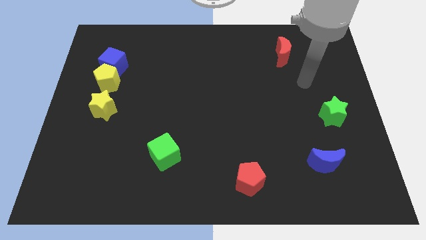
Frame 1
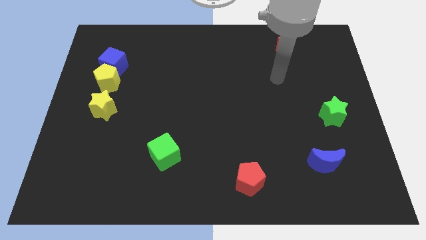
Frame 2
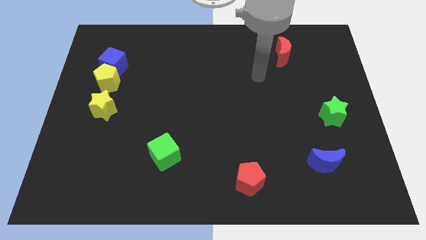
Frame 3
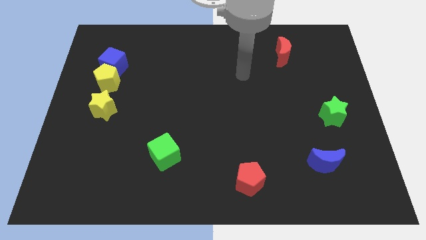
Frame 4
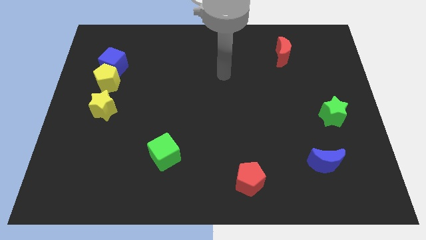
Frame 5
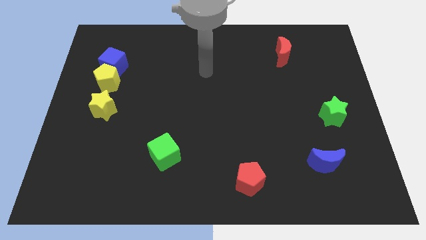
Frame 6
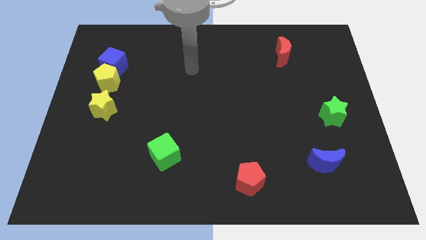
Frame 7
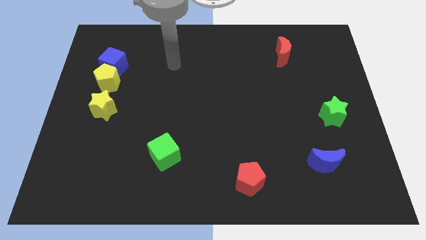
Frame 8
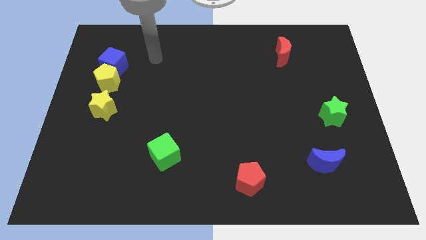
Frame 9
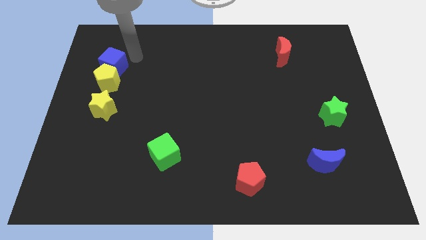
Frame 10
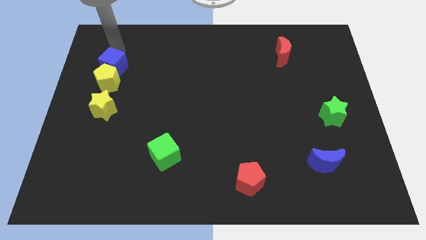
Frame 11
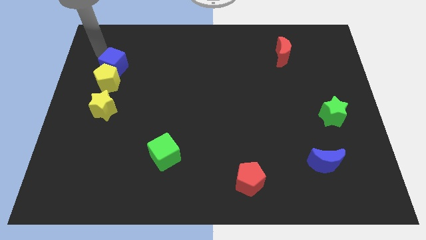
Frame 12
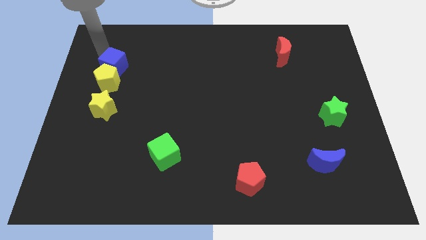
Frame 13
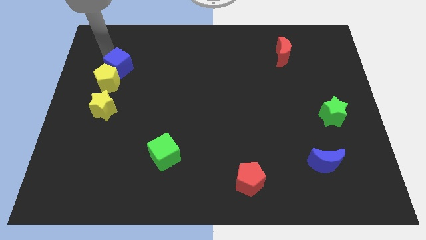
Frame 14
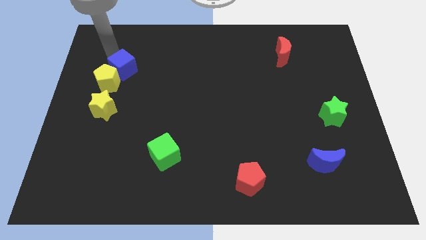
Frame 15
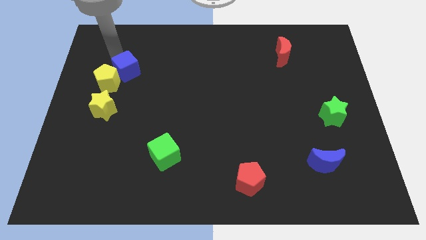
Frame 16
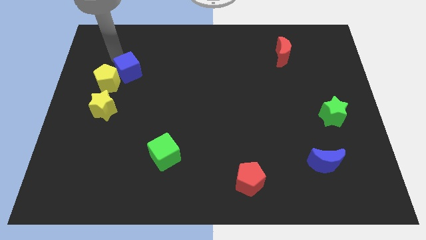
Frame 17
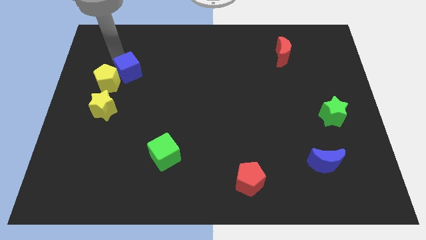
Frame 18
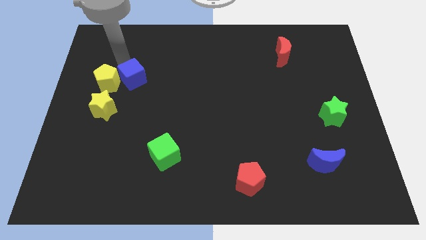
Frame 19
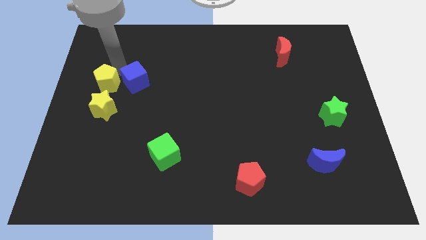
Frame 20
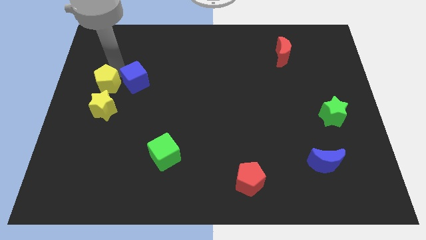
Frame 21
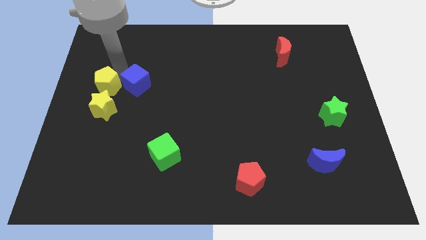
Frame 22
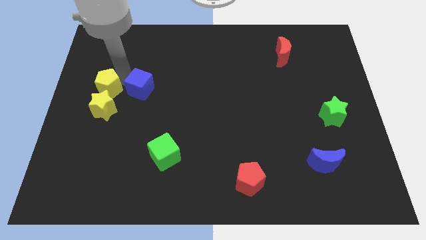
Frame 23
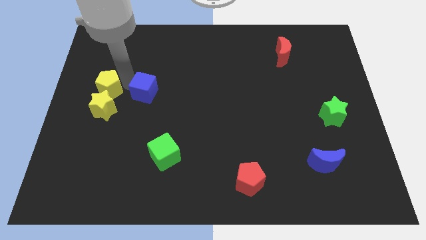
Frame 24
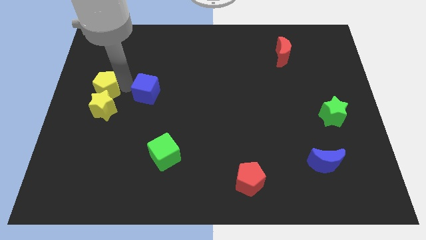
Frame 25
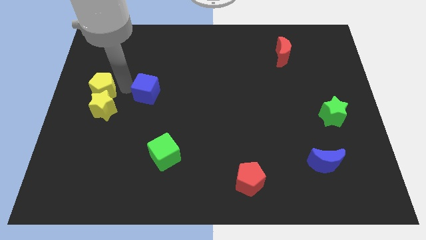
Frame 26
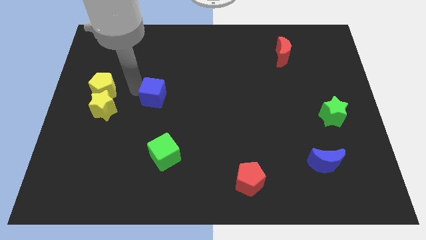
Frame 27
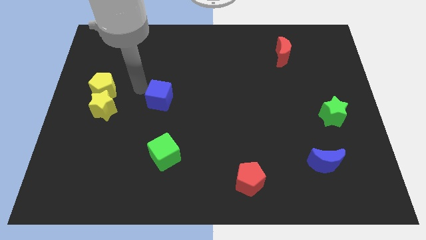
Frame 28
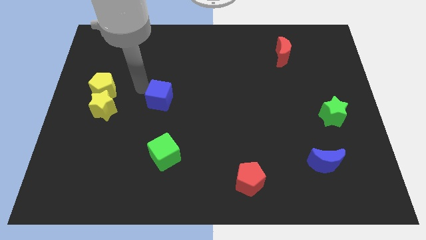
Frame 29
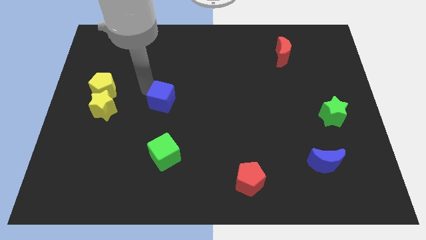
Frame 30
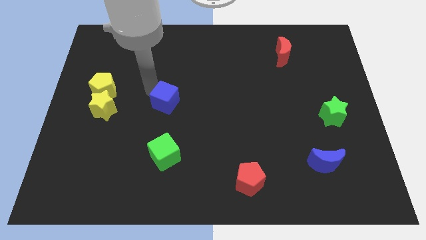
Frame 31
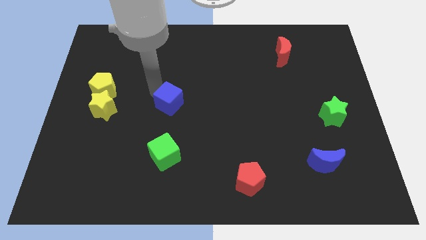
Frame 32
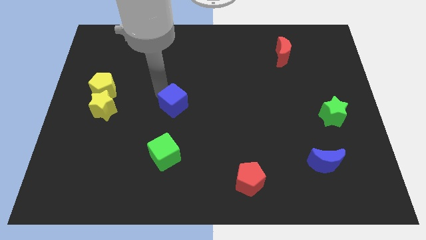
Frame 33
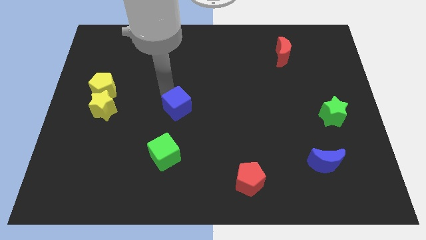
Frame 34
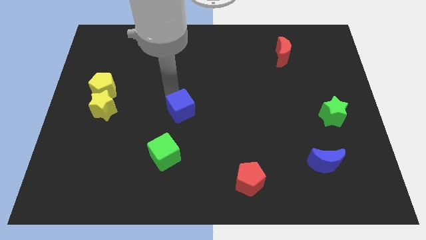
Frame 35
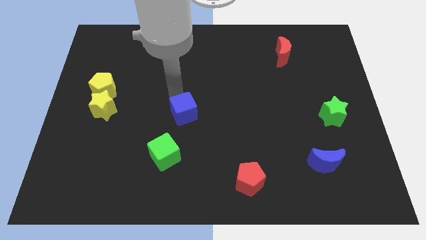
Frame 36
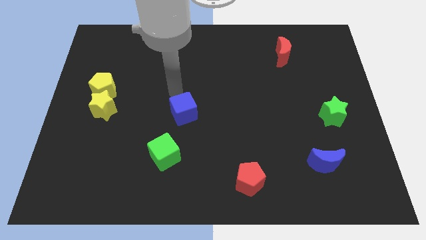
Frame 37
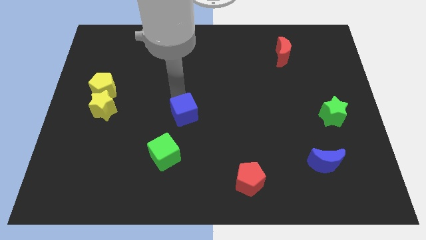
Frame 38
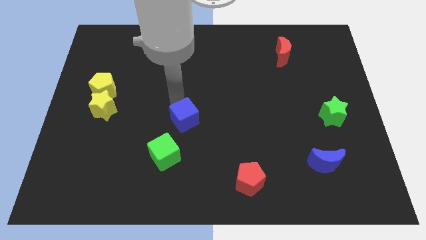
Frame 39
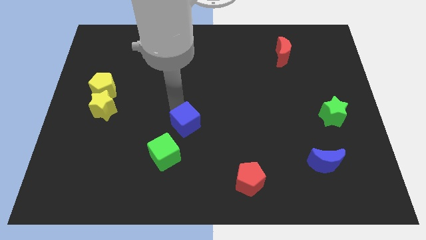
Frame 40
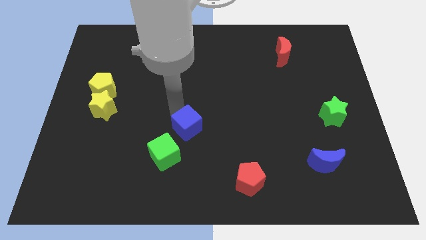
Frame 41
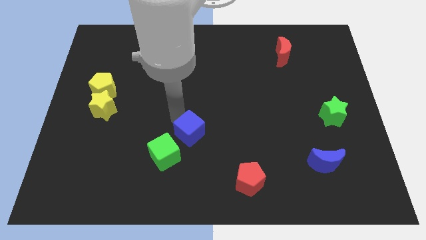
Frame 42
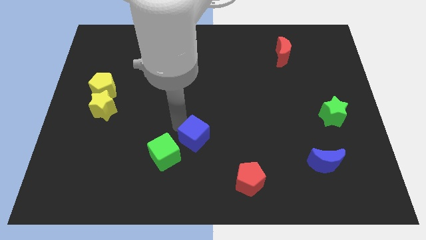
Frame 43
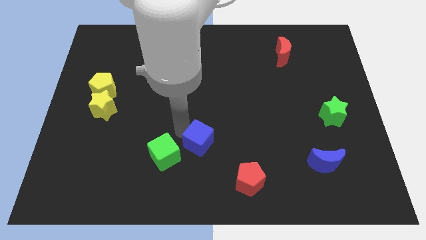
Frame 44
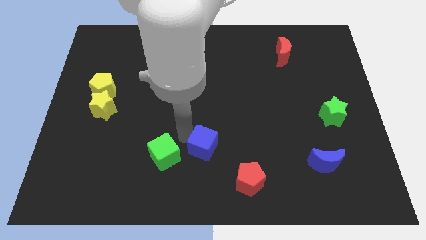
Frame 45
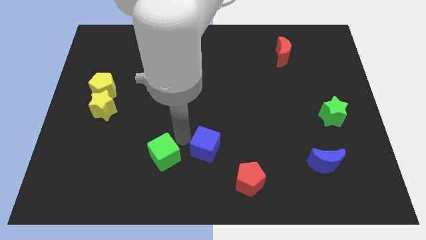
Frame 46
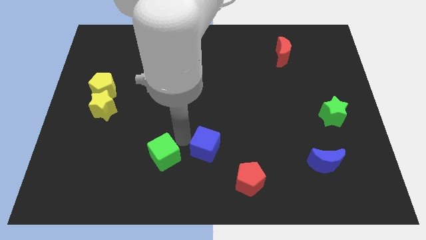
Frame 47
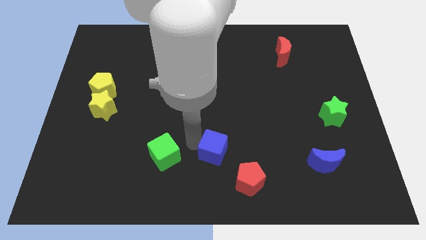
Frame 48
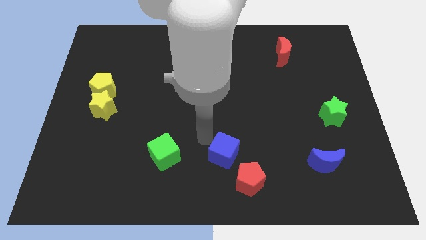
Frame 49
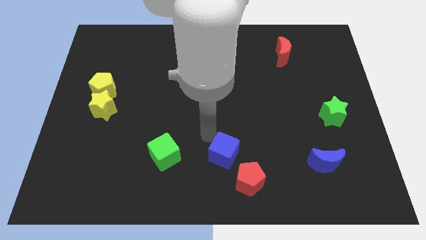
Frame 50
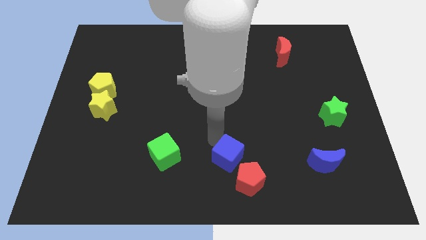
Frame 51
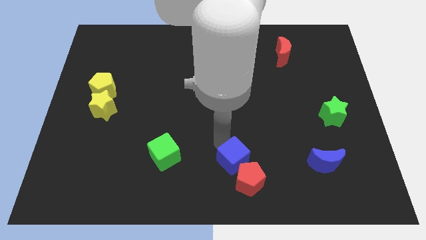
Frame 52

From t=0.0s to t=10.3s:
push the blue cube towards the red pentagon

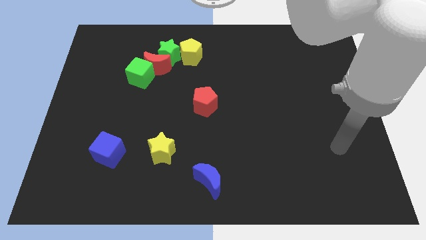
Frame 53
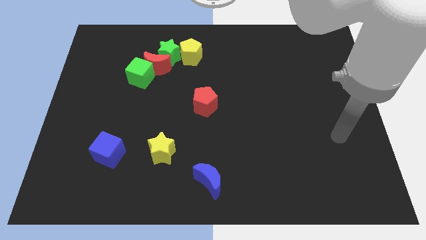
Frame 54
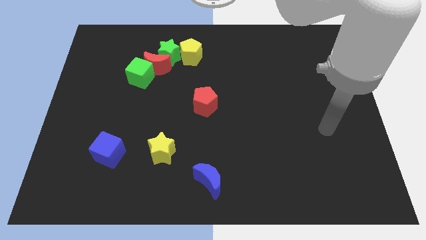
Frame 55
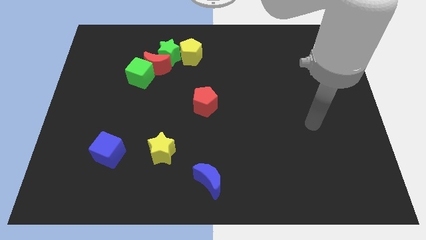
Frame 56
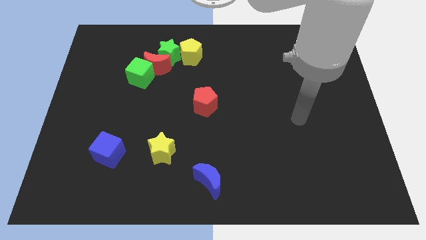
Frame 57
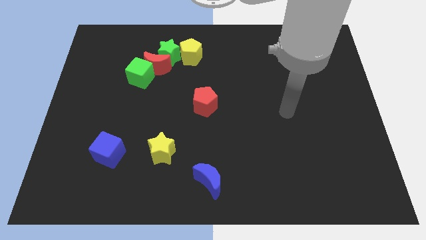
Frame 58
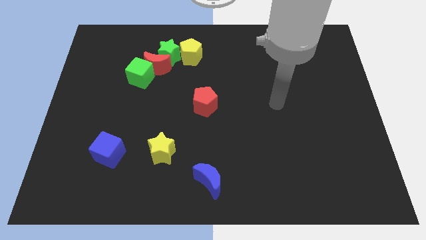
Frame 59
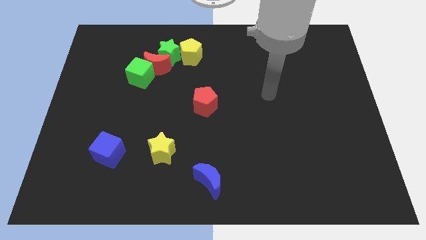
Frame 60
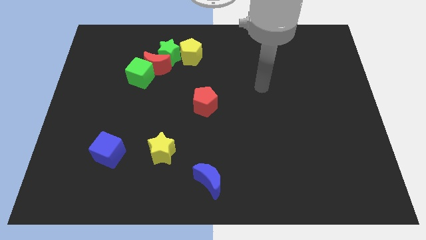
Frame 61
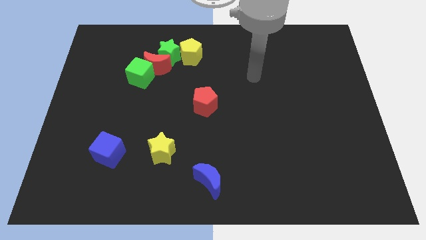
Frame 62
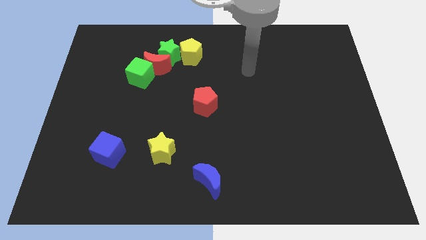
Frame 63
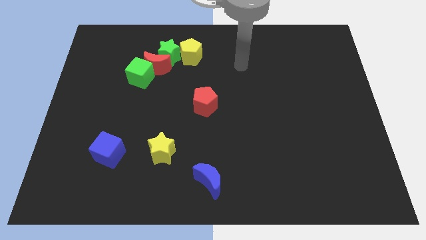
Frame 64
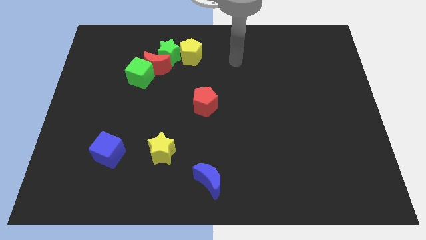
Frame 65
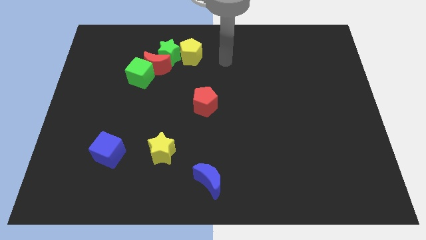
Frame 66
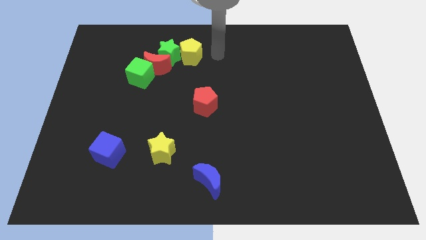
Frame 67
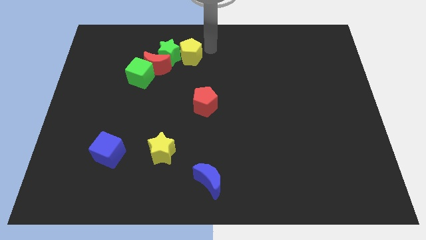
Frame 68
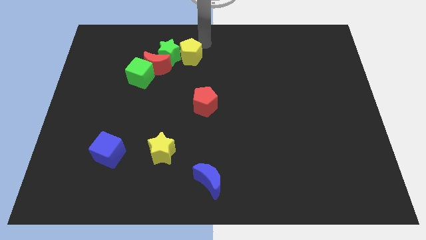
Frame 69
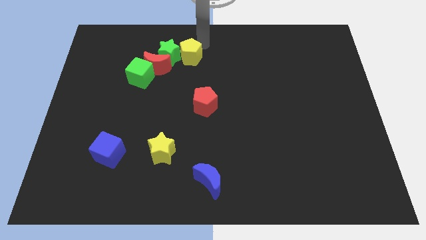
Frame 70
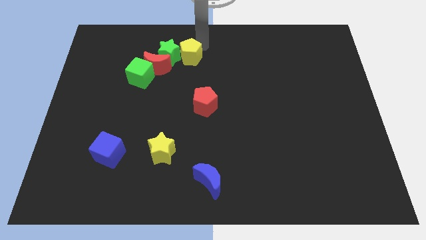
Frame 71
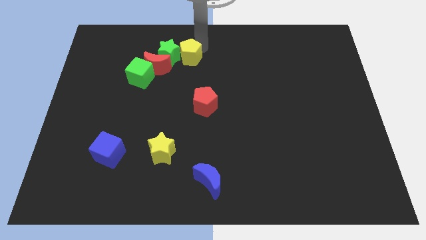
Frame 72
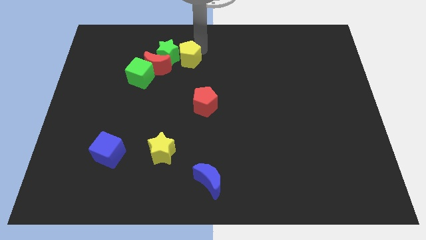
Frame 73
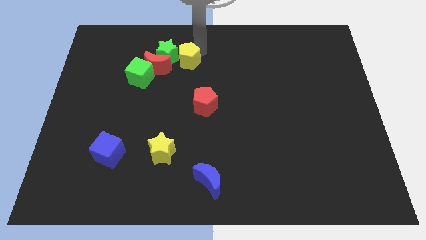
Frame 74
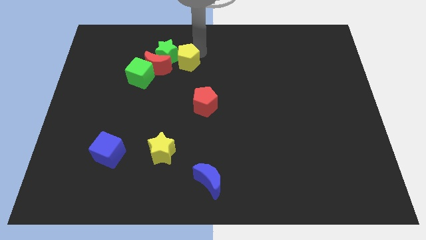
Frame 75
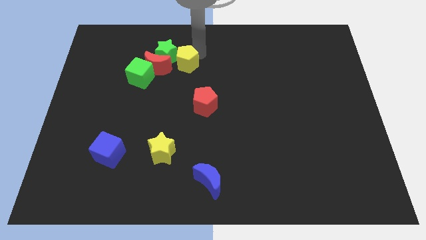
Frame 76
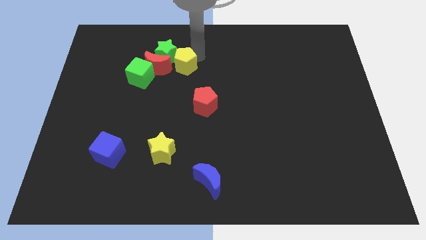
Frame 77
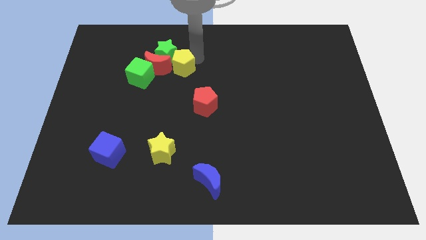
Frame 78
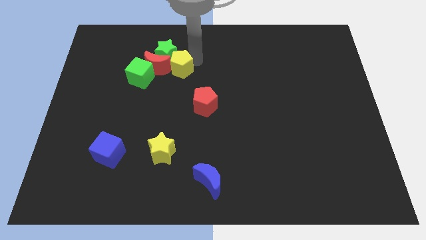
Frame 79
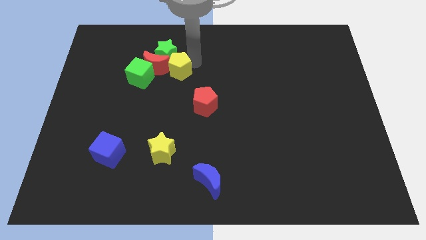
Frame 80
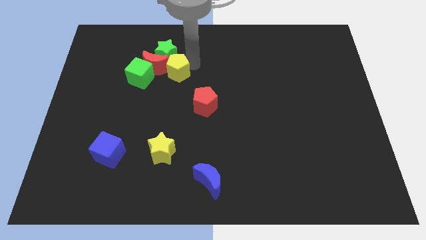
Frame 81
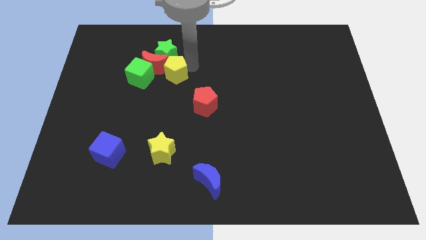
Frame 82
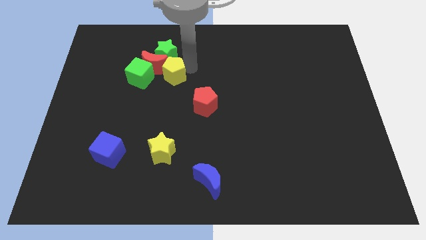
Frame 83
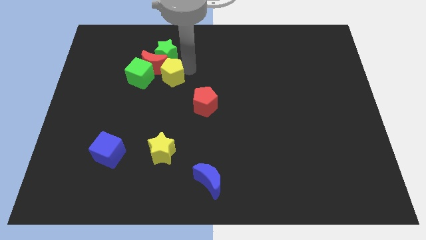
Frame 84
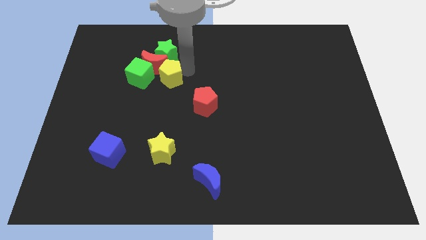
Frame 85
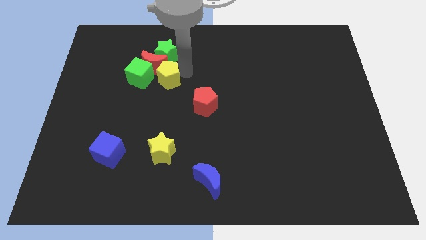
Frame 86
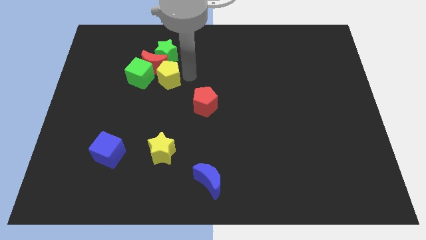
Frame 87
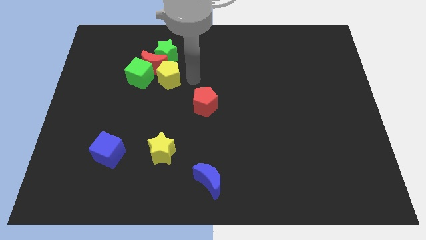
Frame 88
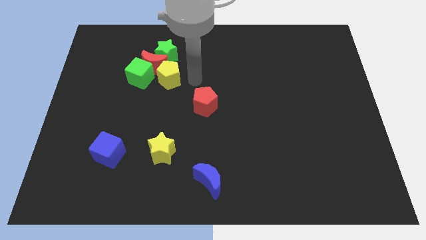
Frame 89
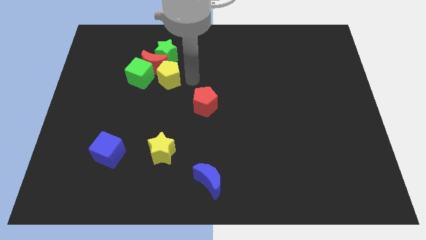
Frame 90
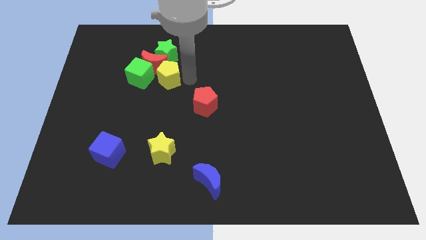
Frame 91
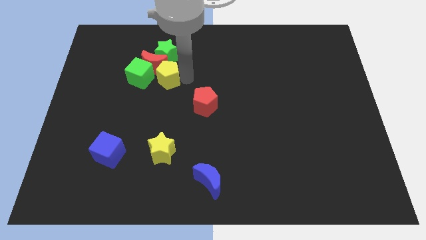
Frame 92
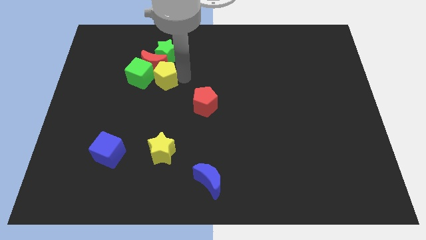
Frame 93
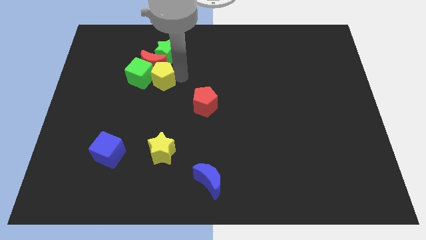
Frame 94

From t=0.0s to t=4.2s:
move the yellow pentagon close to the green cube
